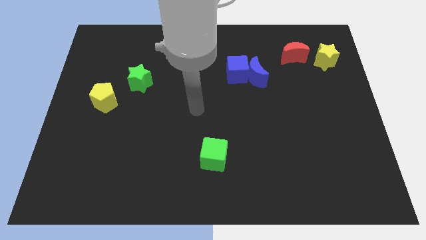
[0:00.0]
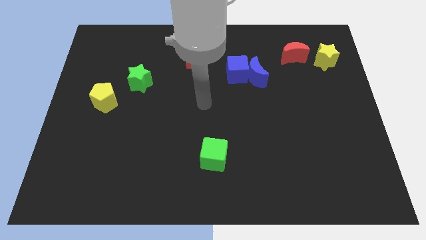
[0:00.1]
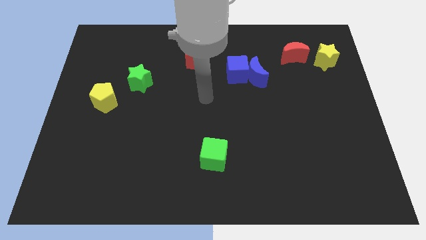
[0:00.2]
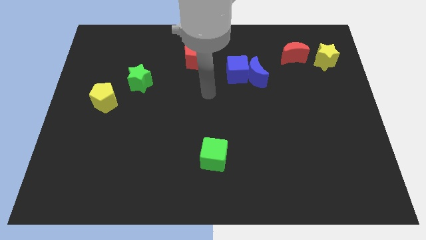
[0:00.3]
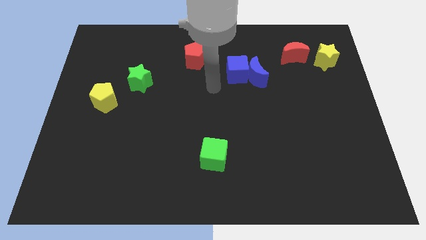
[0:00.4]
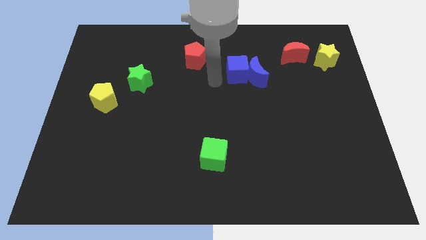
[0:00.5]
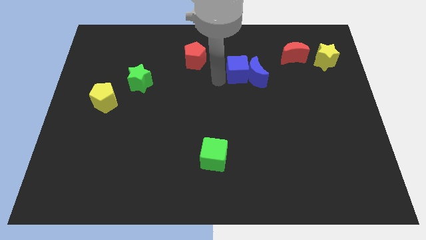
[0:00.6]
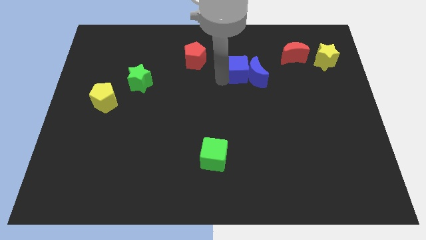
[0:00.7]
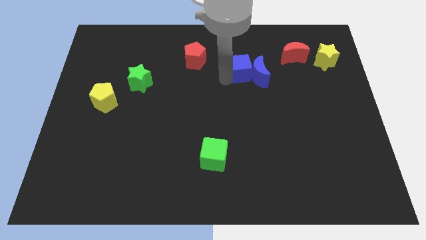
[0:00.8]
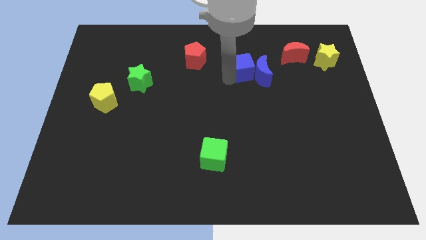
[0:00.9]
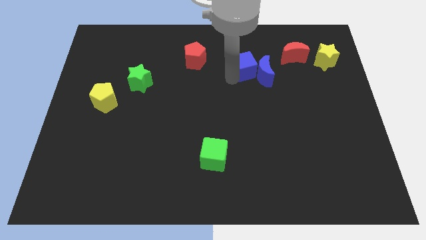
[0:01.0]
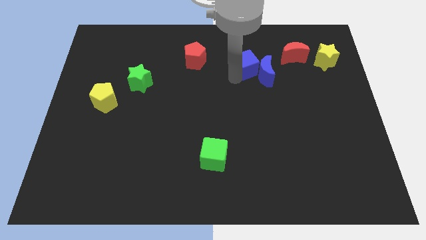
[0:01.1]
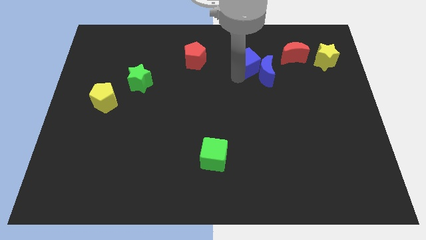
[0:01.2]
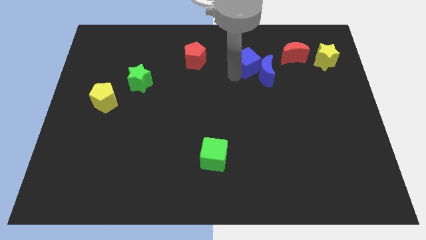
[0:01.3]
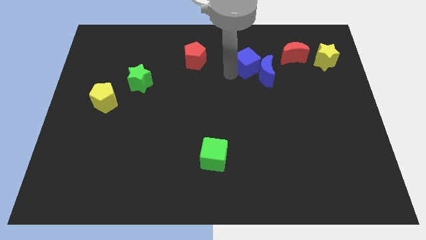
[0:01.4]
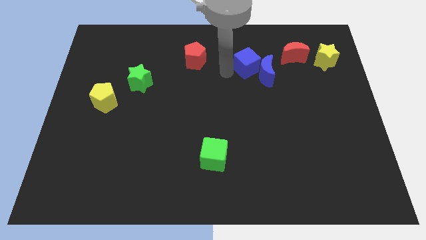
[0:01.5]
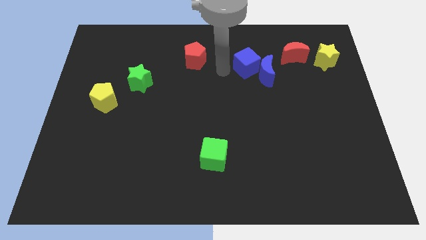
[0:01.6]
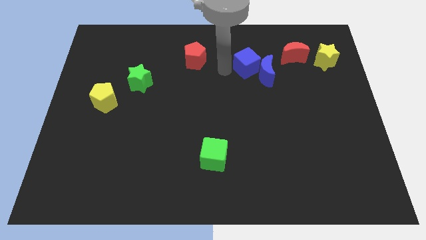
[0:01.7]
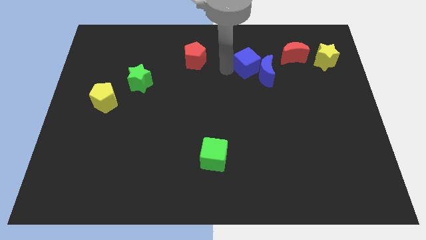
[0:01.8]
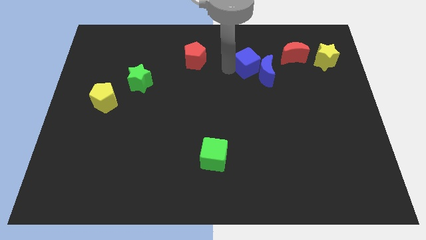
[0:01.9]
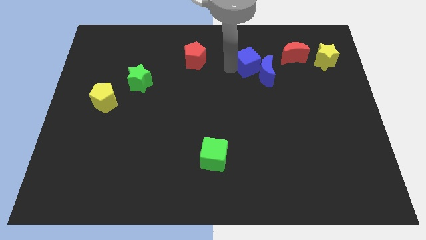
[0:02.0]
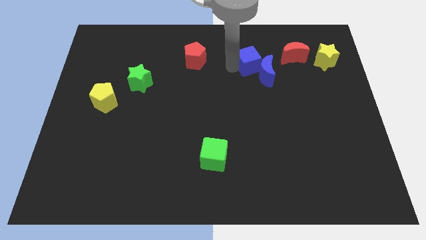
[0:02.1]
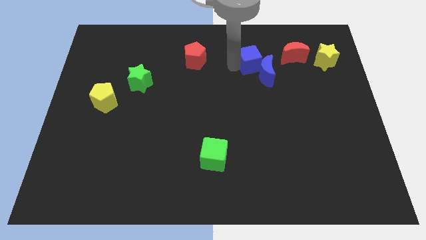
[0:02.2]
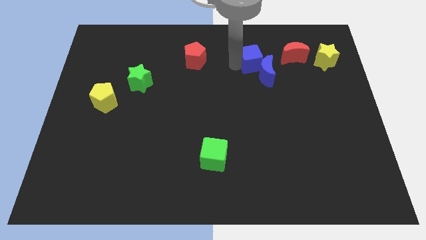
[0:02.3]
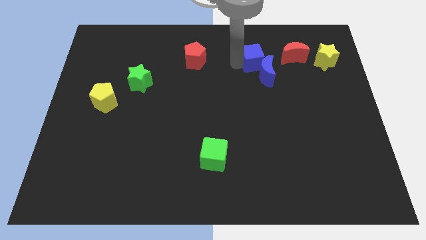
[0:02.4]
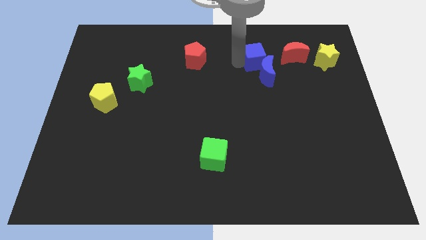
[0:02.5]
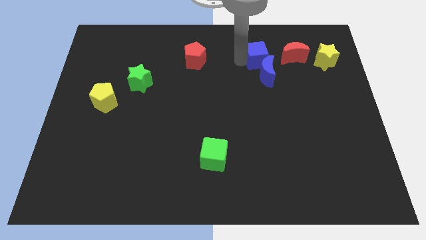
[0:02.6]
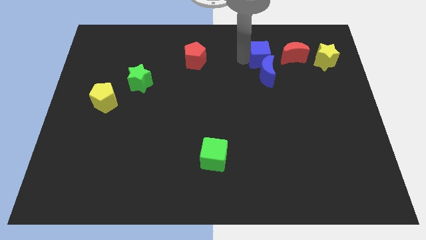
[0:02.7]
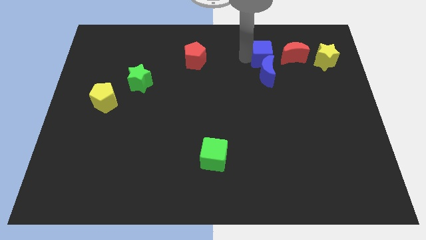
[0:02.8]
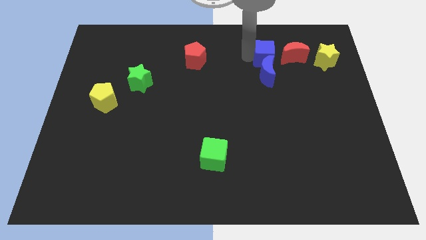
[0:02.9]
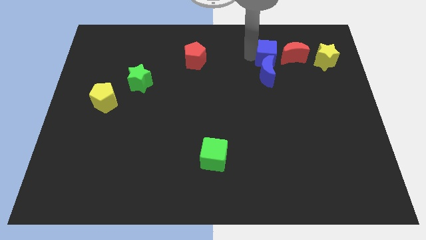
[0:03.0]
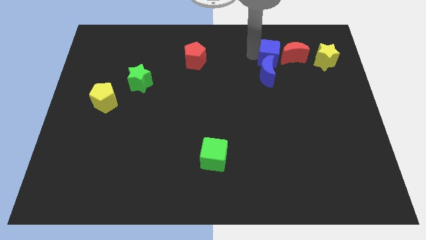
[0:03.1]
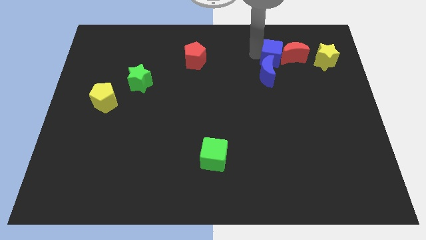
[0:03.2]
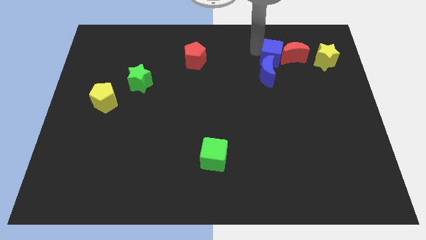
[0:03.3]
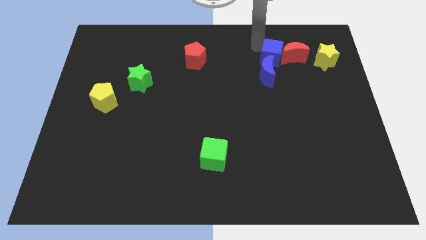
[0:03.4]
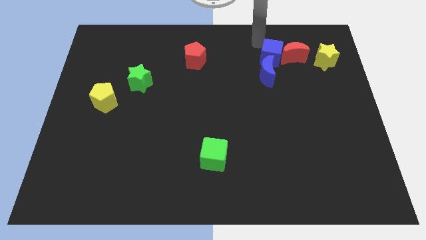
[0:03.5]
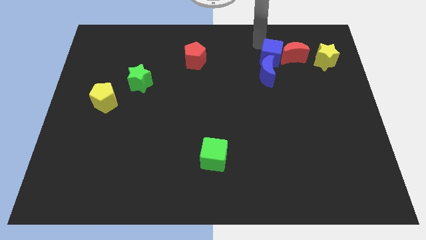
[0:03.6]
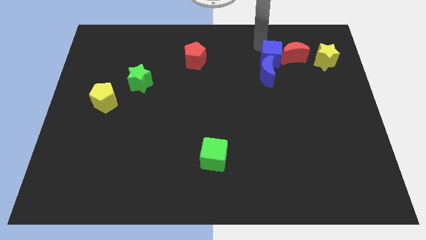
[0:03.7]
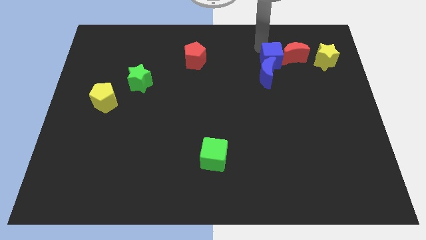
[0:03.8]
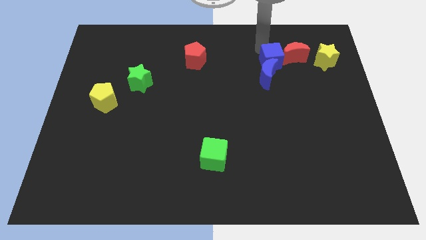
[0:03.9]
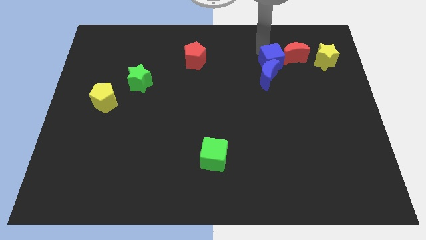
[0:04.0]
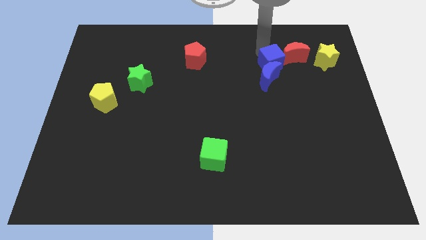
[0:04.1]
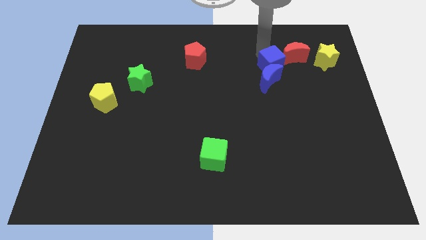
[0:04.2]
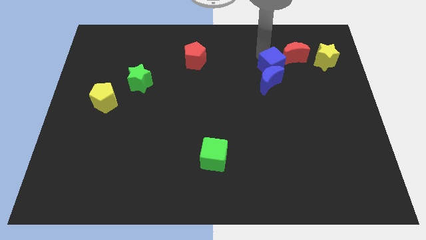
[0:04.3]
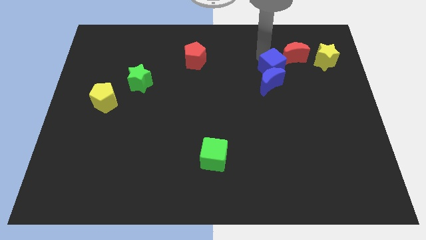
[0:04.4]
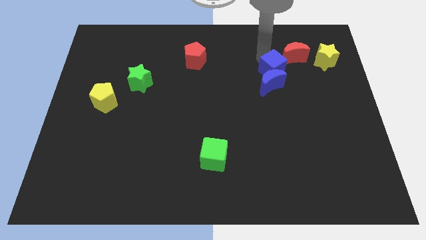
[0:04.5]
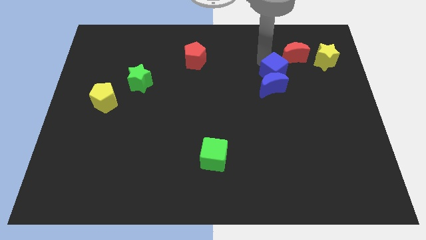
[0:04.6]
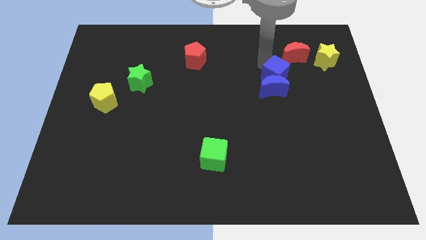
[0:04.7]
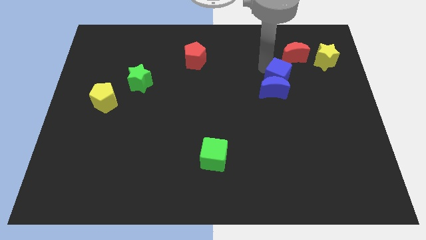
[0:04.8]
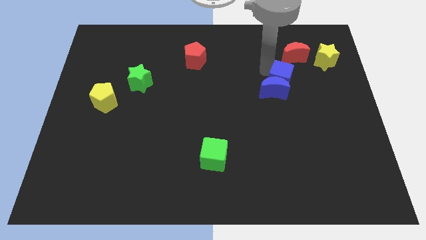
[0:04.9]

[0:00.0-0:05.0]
move the blue cube just right of the blue moon

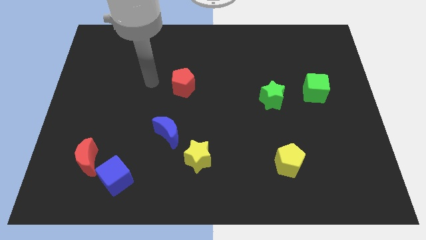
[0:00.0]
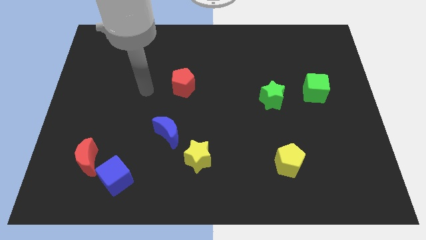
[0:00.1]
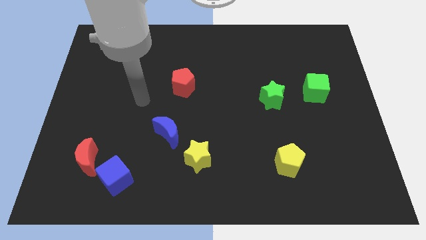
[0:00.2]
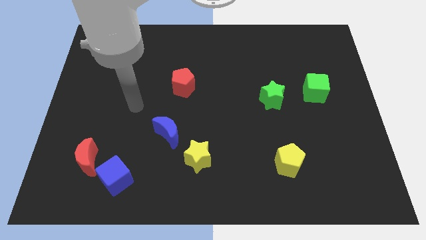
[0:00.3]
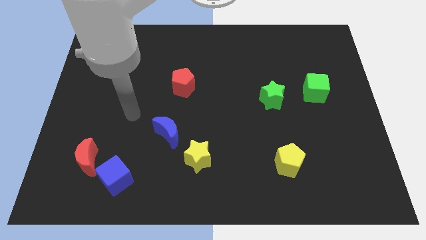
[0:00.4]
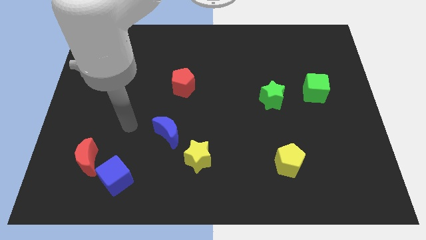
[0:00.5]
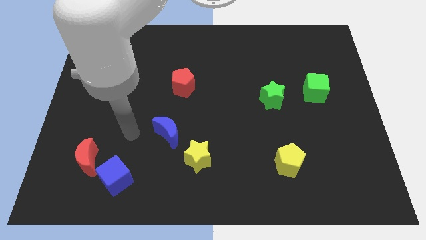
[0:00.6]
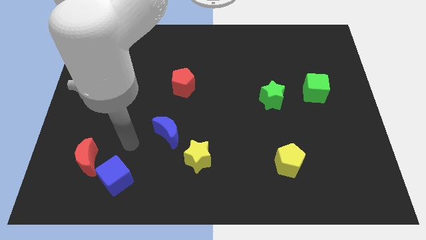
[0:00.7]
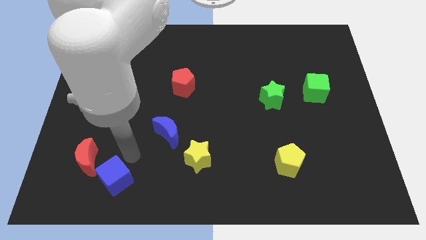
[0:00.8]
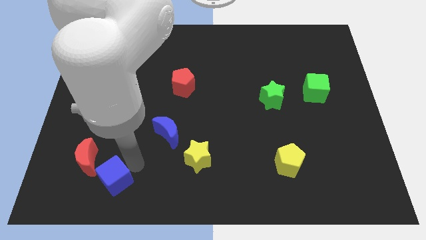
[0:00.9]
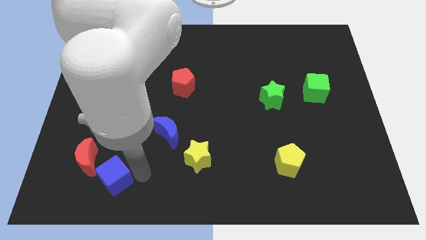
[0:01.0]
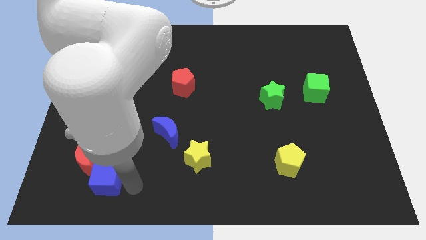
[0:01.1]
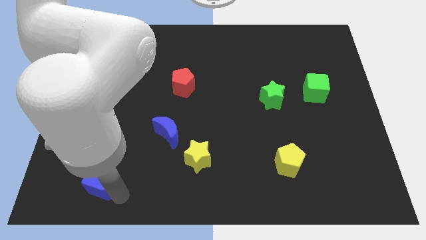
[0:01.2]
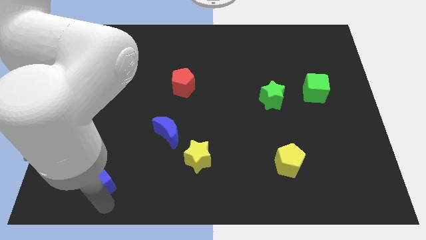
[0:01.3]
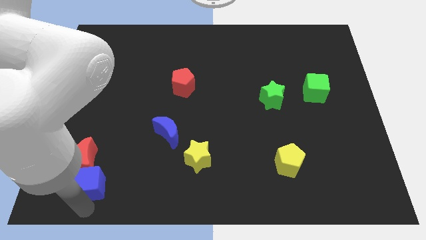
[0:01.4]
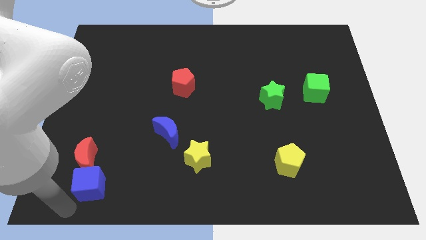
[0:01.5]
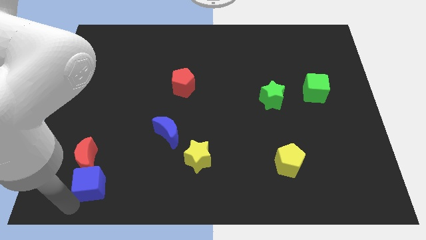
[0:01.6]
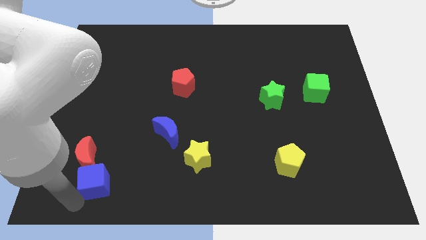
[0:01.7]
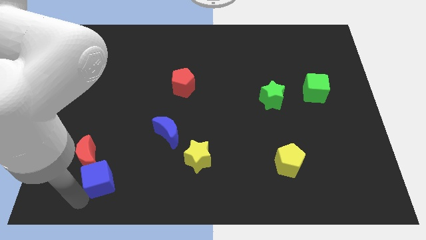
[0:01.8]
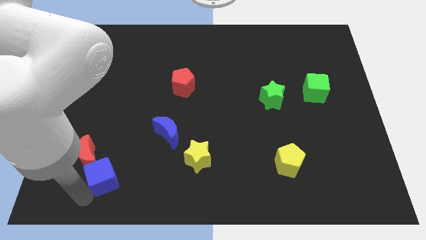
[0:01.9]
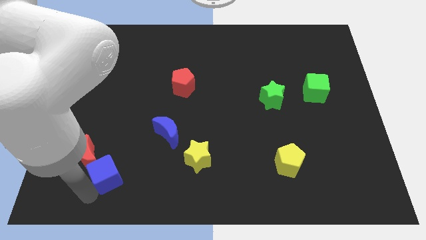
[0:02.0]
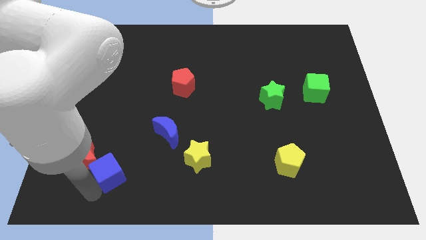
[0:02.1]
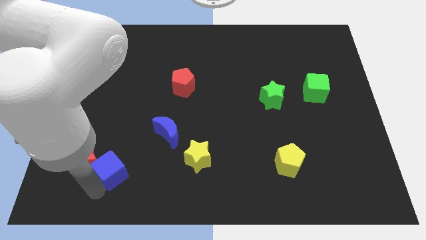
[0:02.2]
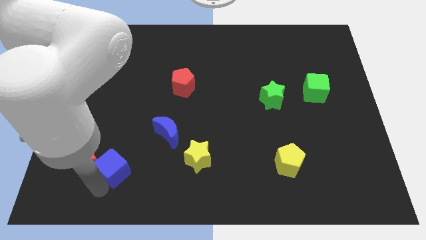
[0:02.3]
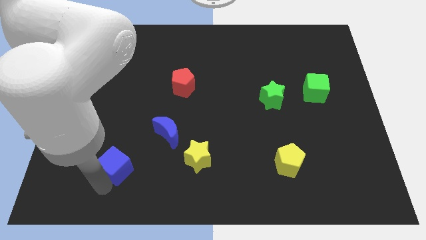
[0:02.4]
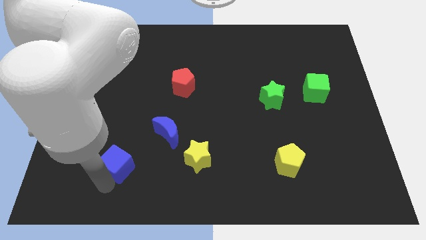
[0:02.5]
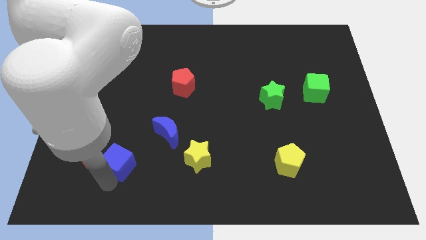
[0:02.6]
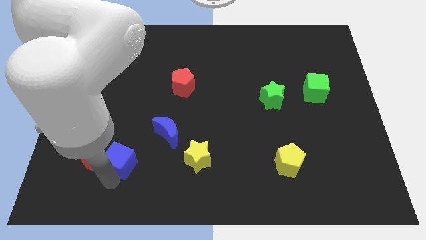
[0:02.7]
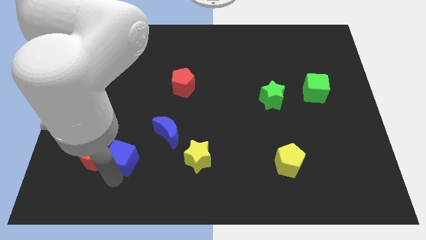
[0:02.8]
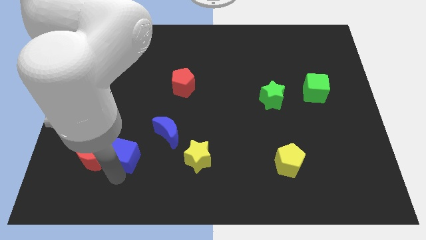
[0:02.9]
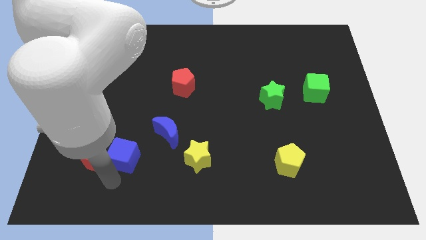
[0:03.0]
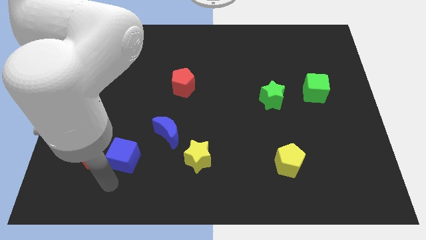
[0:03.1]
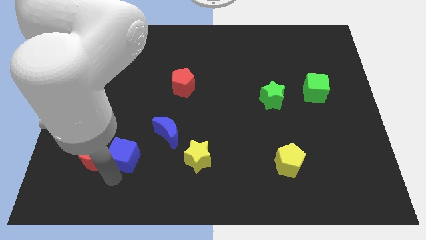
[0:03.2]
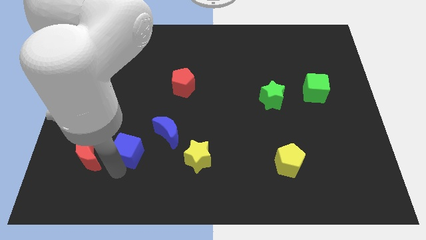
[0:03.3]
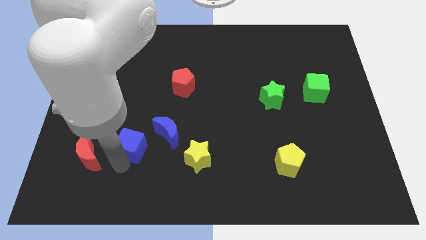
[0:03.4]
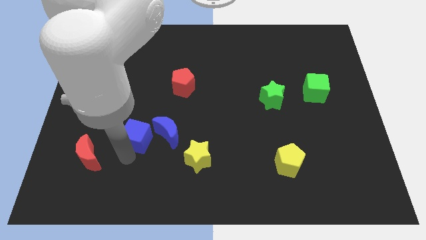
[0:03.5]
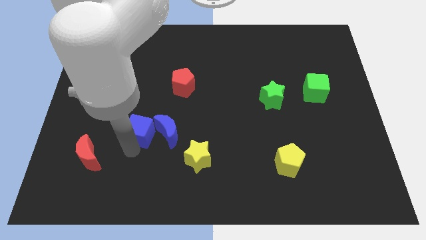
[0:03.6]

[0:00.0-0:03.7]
push the blue cube to the top left of the blue moon
